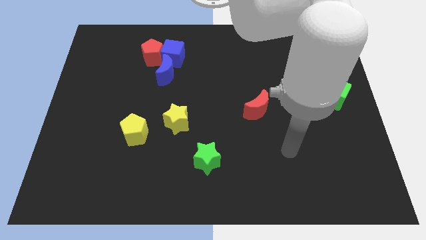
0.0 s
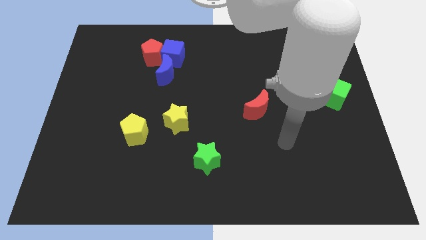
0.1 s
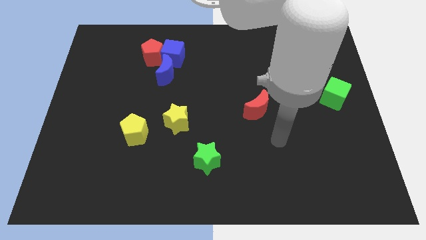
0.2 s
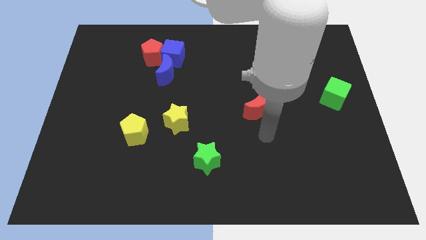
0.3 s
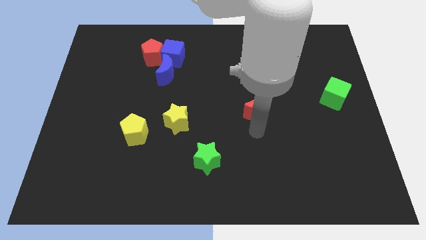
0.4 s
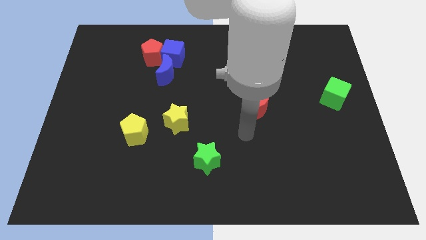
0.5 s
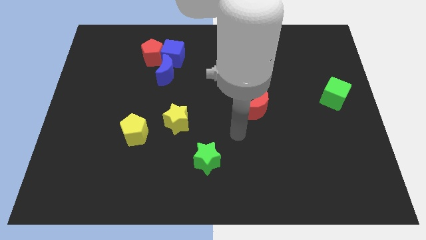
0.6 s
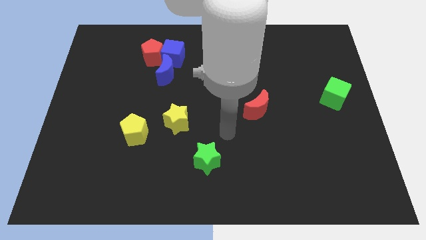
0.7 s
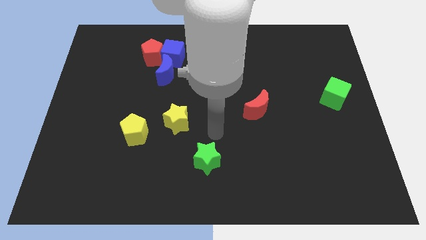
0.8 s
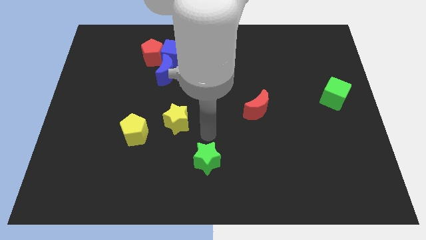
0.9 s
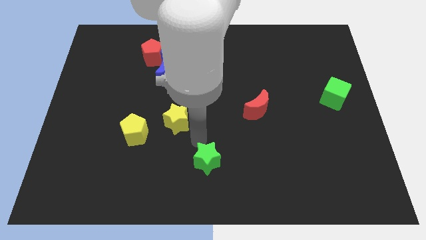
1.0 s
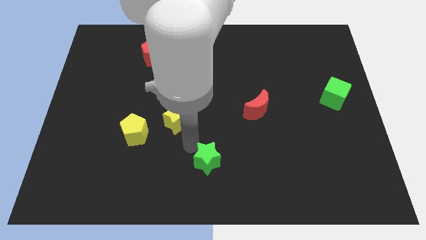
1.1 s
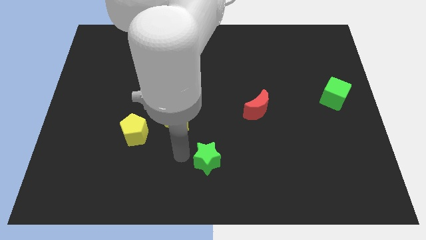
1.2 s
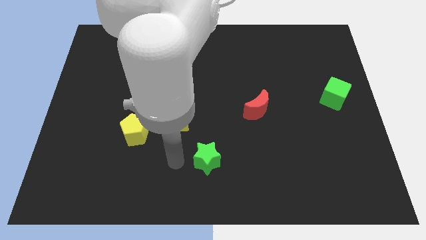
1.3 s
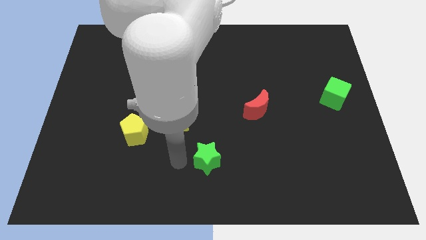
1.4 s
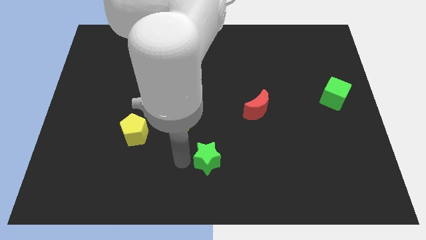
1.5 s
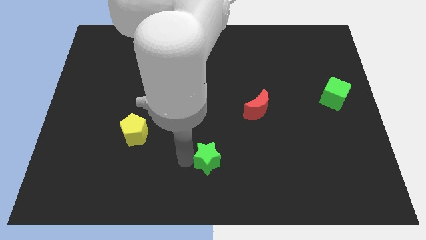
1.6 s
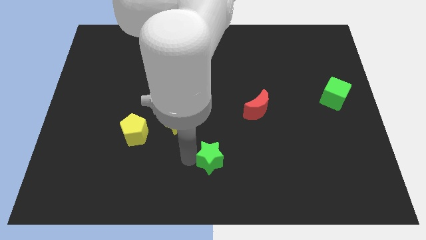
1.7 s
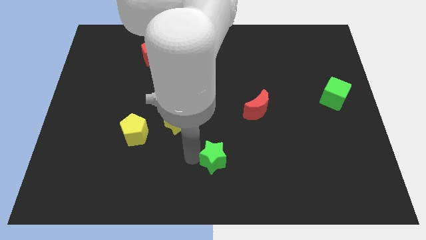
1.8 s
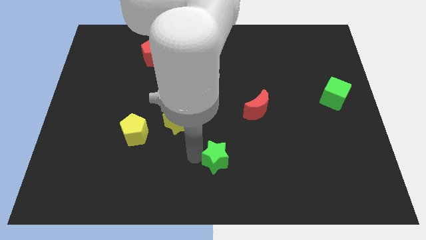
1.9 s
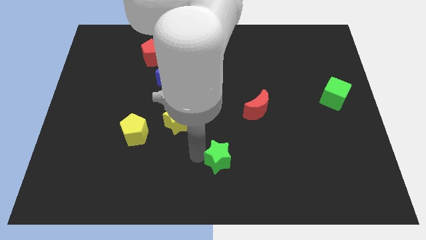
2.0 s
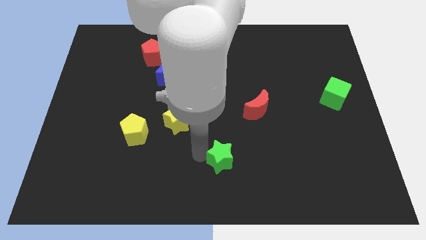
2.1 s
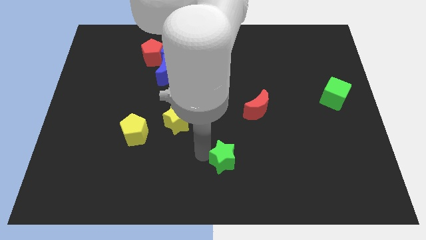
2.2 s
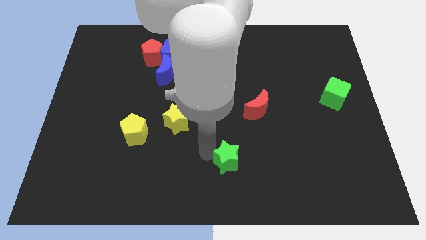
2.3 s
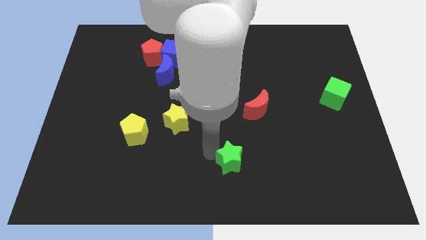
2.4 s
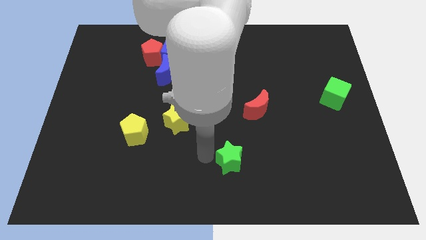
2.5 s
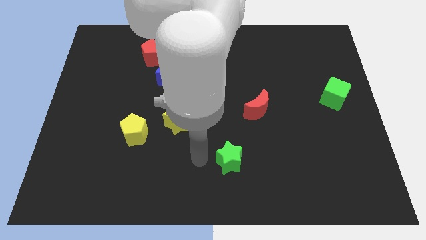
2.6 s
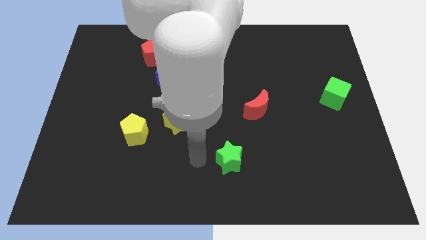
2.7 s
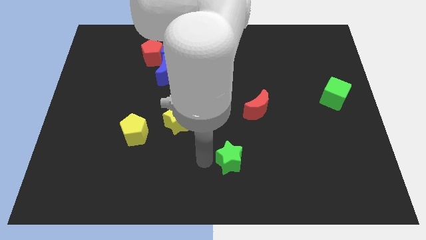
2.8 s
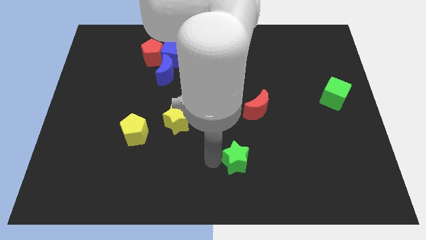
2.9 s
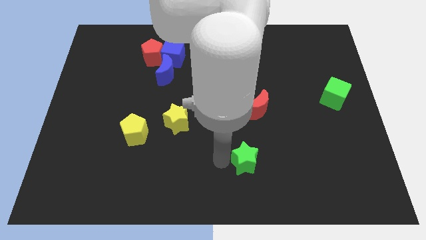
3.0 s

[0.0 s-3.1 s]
move the green star a bit to the right

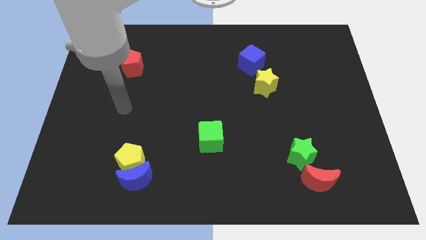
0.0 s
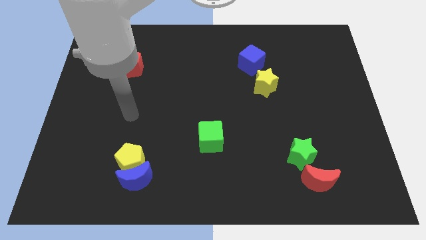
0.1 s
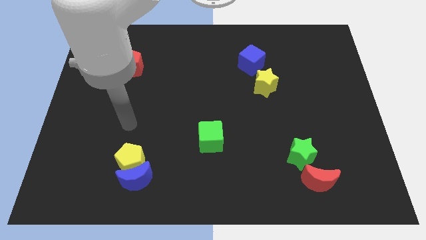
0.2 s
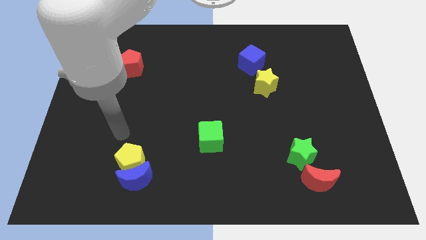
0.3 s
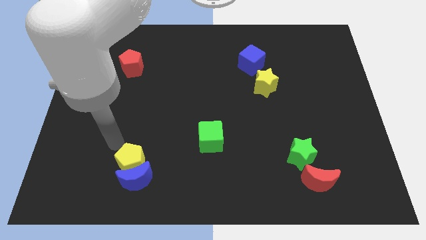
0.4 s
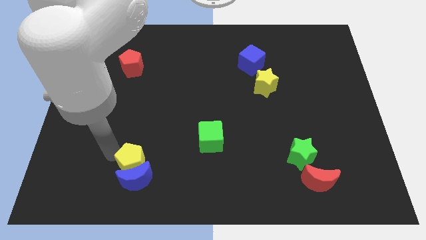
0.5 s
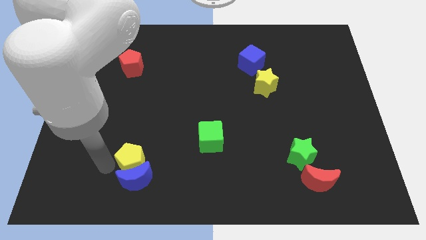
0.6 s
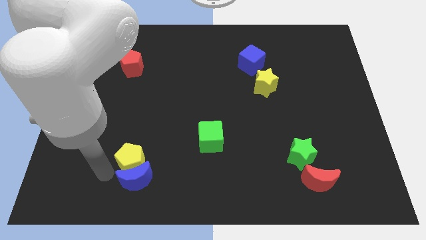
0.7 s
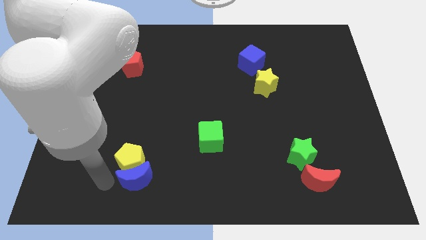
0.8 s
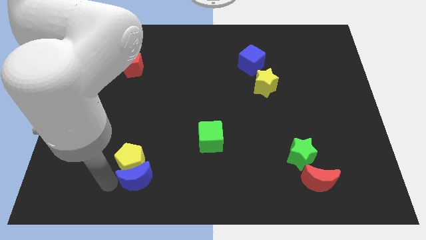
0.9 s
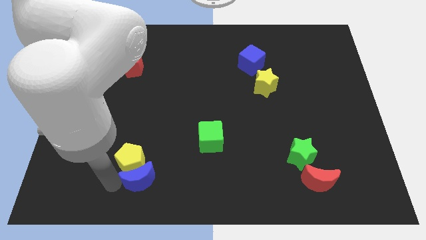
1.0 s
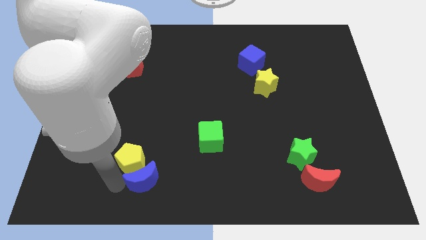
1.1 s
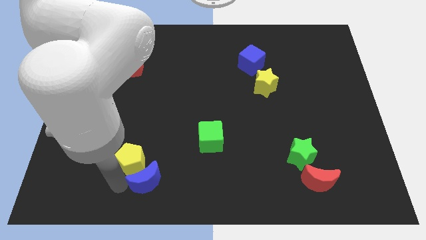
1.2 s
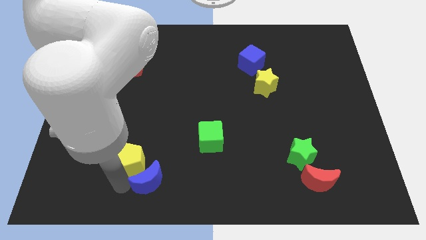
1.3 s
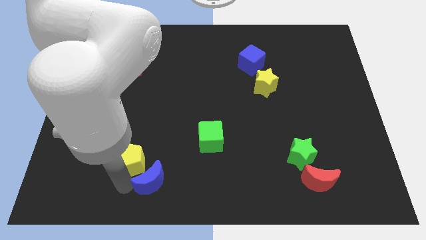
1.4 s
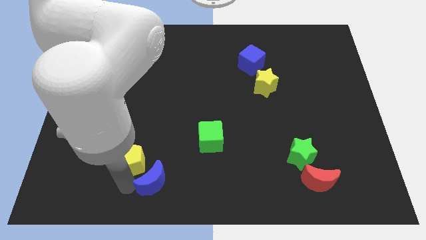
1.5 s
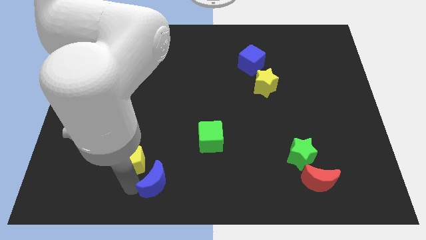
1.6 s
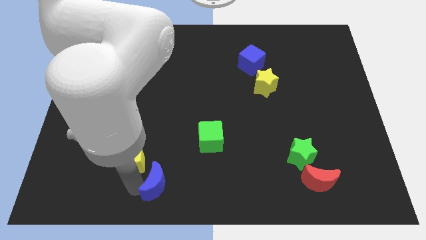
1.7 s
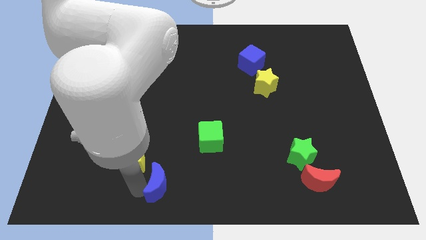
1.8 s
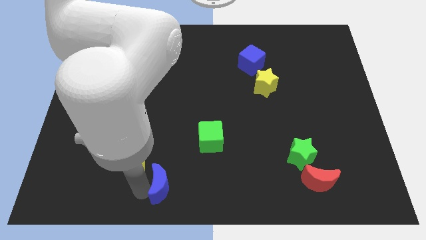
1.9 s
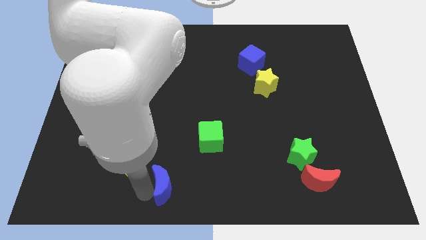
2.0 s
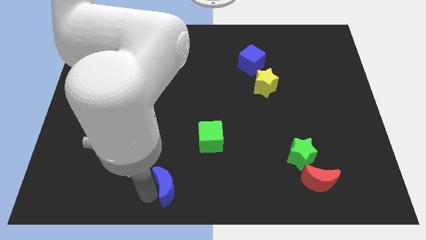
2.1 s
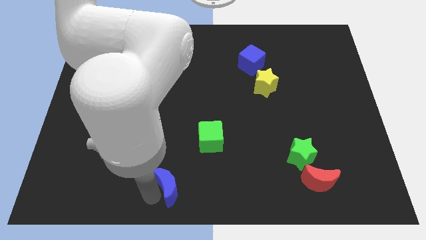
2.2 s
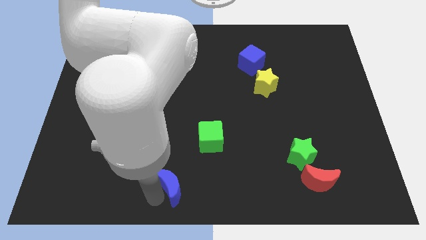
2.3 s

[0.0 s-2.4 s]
slightly push the blue moon right

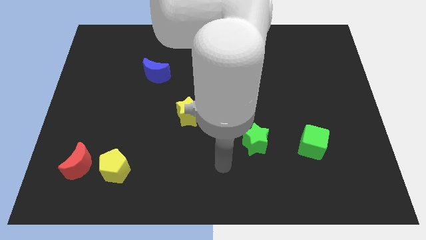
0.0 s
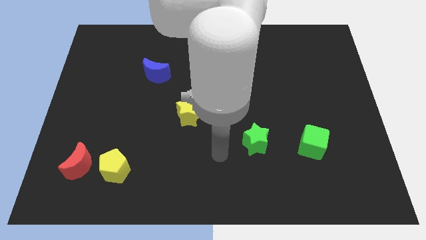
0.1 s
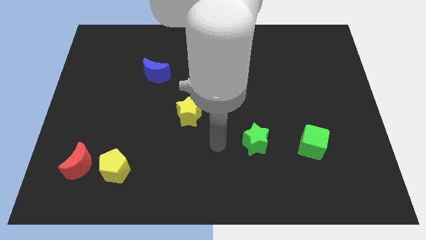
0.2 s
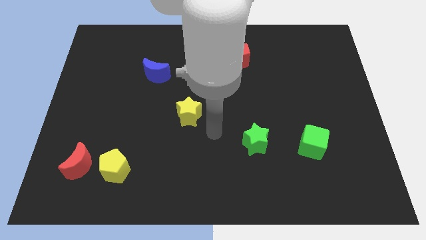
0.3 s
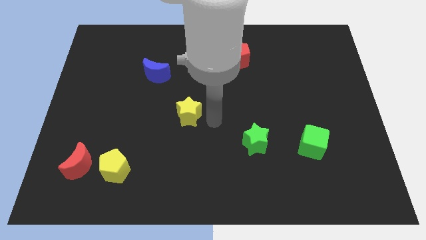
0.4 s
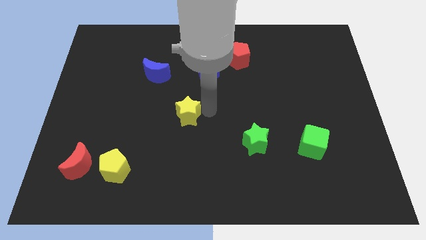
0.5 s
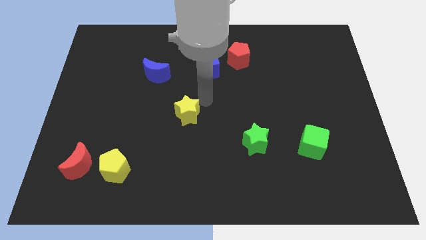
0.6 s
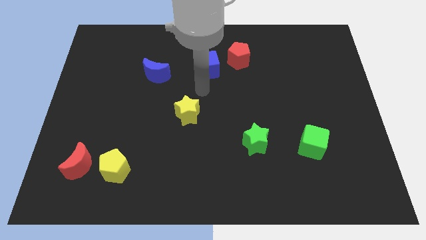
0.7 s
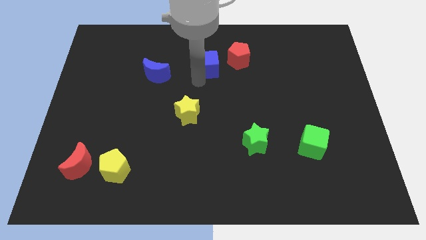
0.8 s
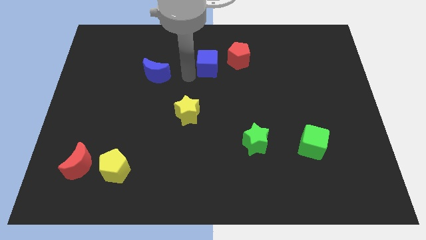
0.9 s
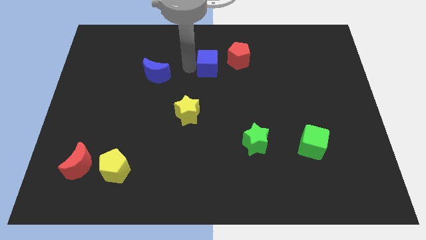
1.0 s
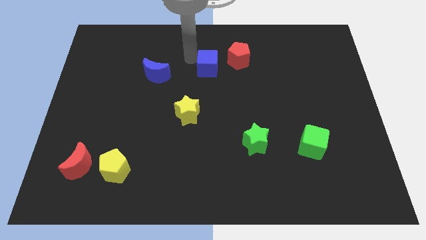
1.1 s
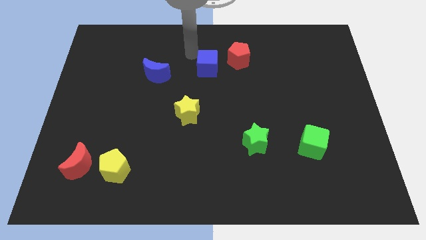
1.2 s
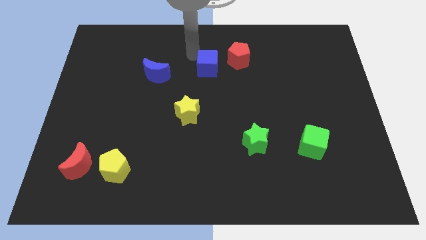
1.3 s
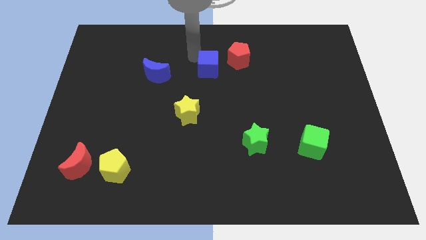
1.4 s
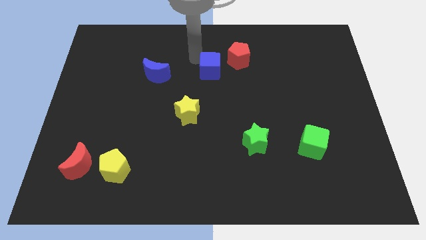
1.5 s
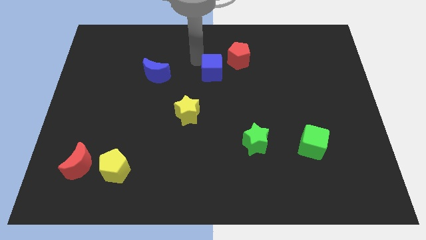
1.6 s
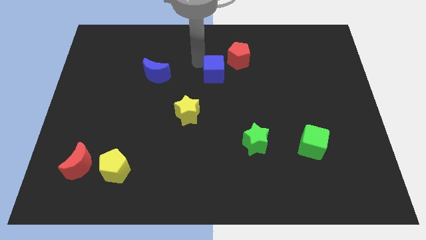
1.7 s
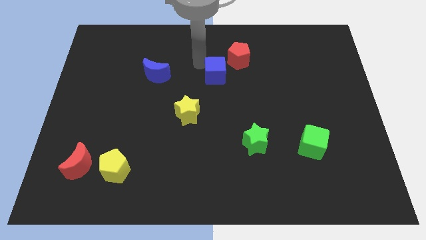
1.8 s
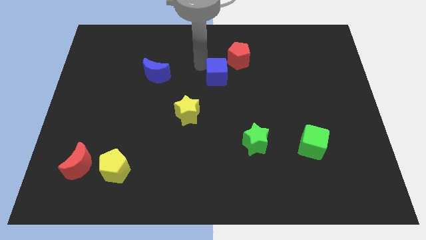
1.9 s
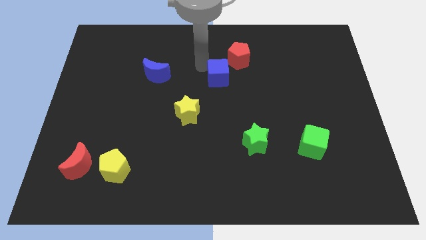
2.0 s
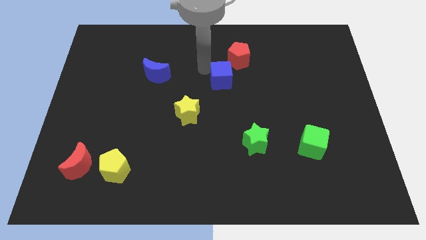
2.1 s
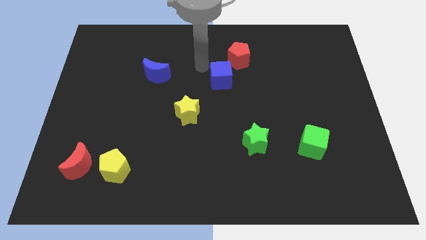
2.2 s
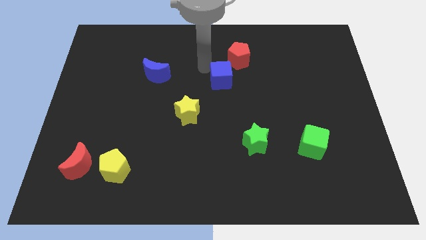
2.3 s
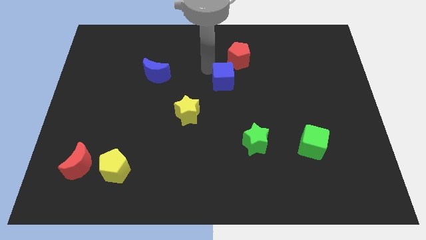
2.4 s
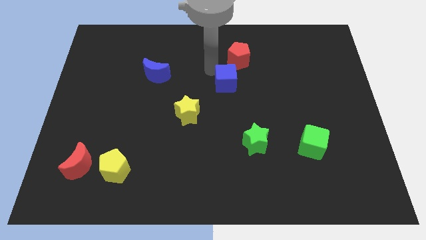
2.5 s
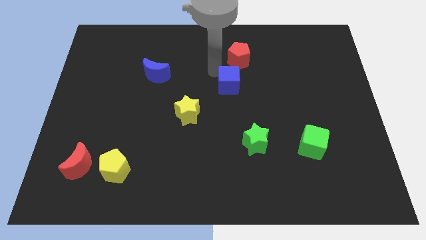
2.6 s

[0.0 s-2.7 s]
slightly slide the blue cube diagonally down and right
